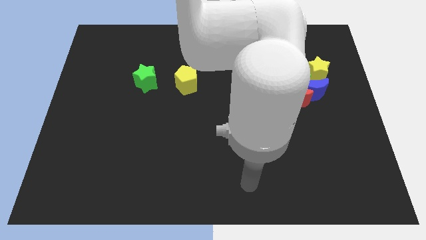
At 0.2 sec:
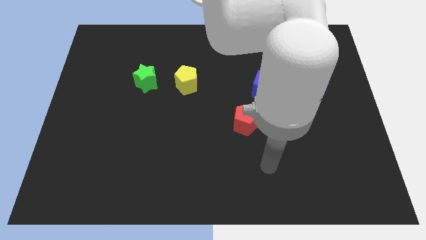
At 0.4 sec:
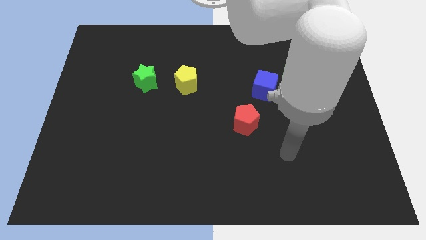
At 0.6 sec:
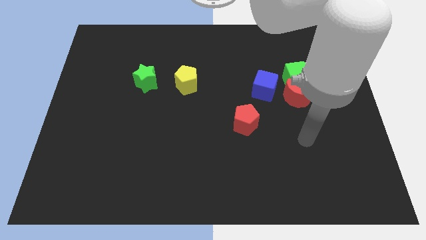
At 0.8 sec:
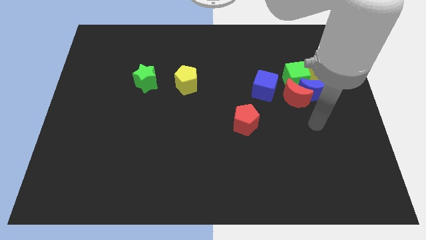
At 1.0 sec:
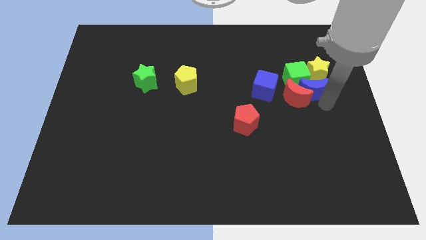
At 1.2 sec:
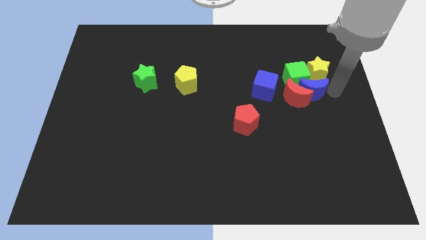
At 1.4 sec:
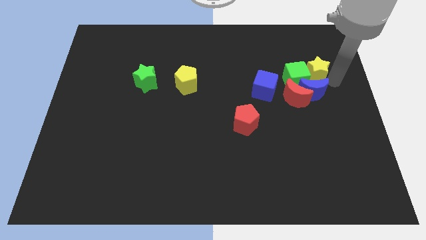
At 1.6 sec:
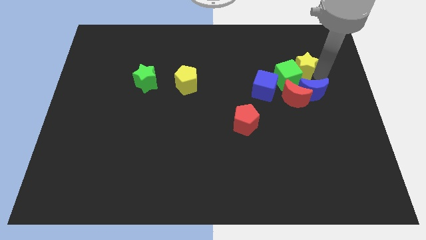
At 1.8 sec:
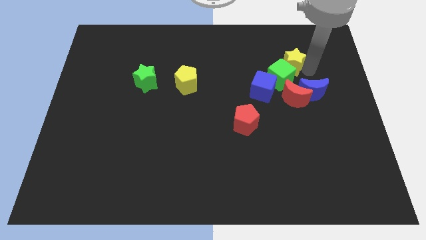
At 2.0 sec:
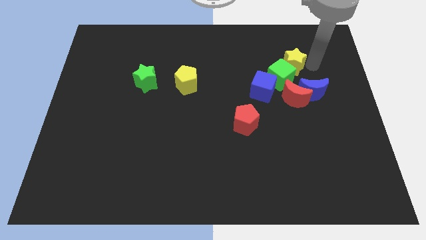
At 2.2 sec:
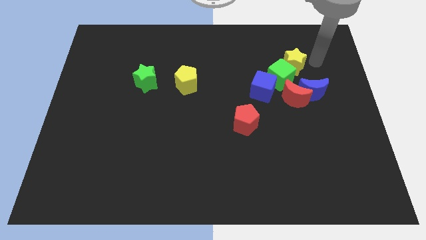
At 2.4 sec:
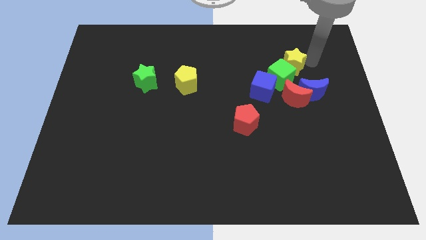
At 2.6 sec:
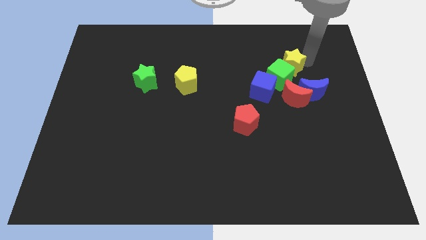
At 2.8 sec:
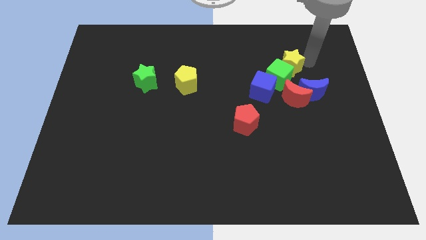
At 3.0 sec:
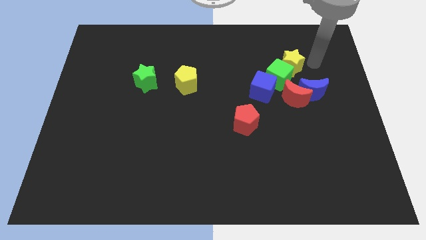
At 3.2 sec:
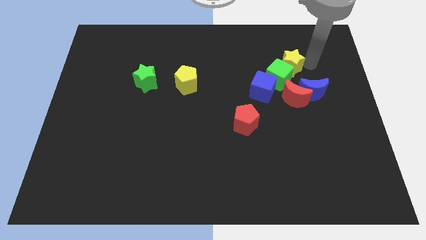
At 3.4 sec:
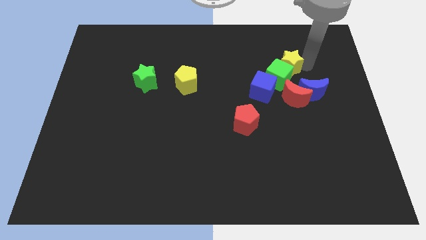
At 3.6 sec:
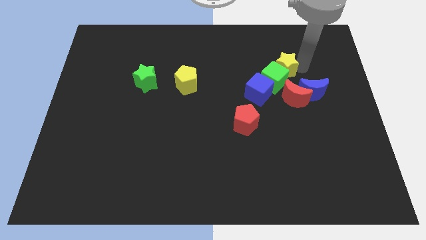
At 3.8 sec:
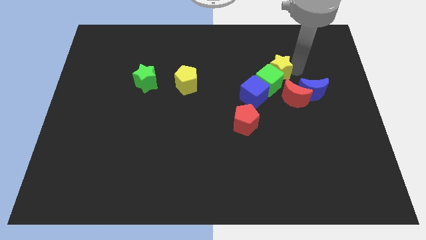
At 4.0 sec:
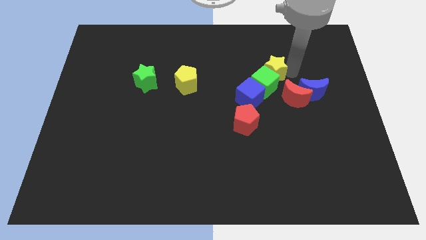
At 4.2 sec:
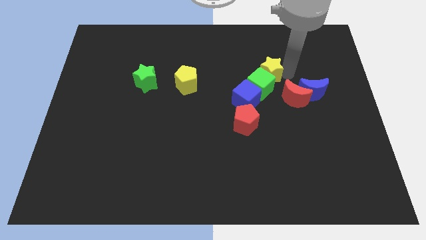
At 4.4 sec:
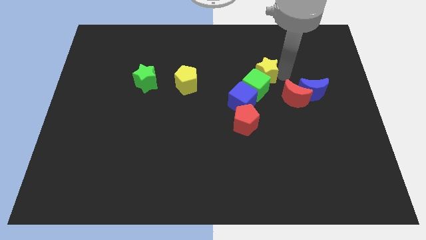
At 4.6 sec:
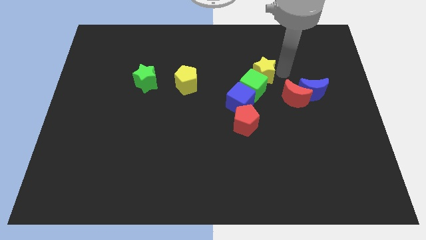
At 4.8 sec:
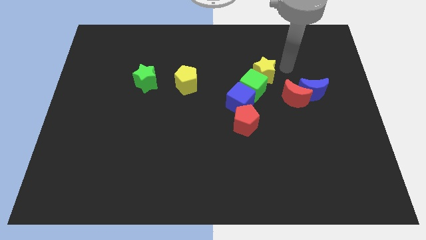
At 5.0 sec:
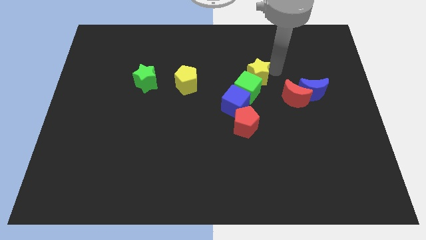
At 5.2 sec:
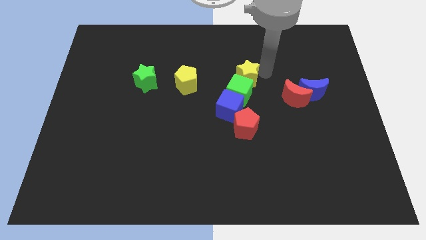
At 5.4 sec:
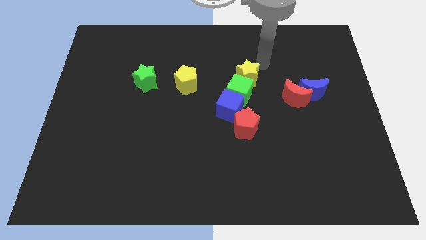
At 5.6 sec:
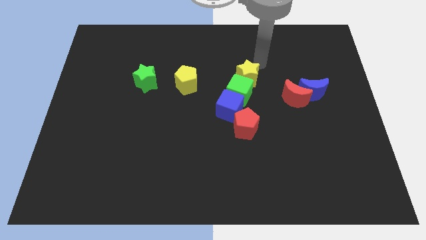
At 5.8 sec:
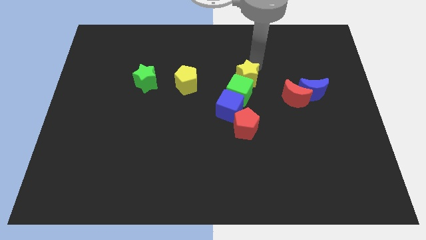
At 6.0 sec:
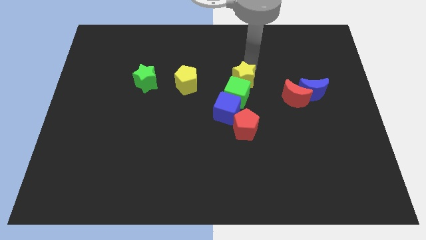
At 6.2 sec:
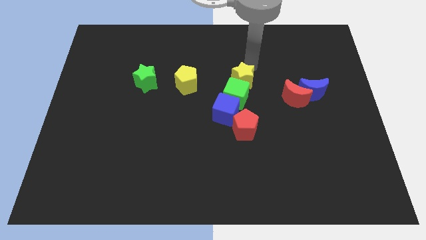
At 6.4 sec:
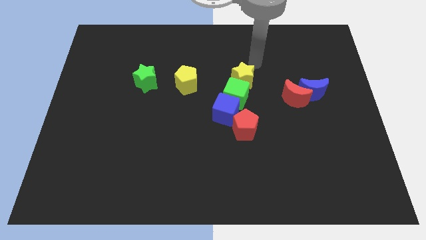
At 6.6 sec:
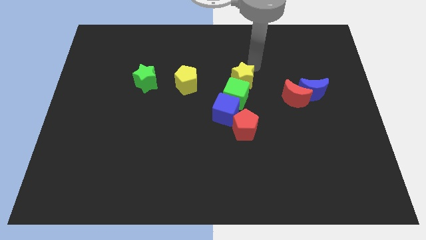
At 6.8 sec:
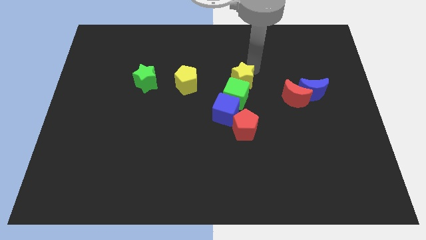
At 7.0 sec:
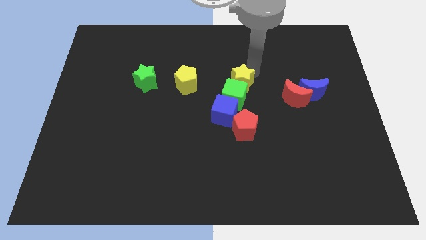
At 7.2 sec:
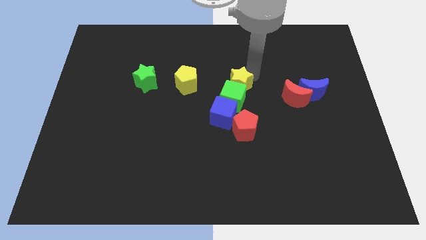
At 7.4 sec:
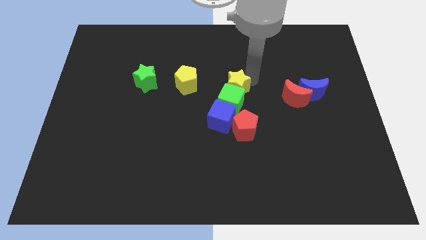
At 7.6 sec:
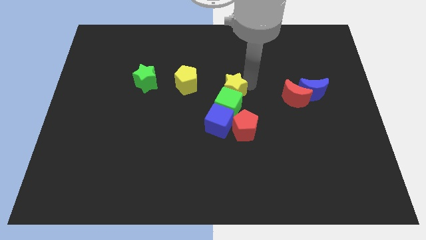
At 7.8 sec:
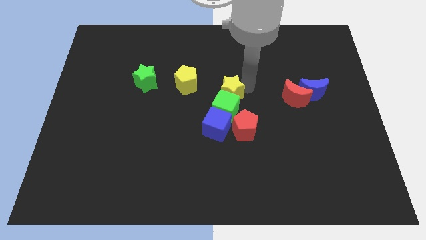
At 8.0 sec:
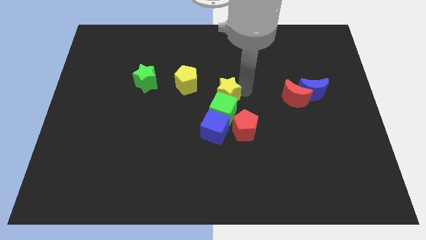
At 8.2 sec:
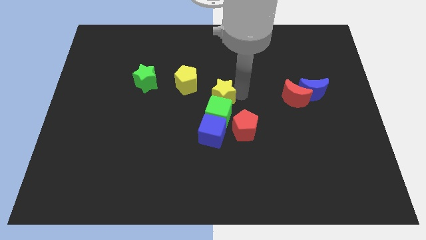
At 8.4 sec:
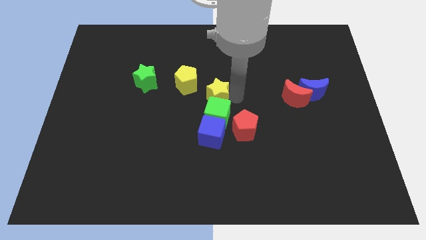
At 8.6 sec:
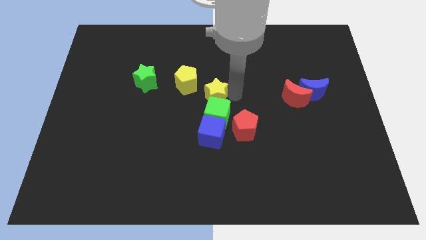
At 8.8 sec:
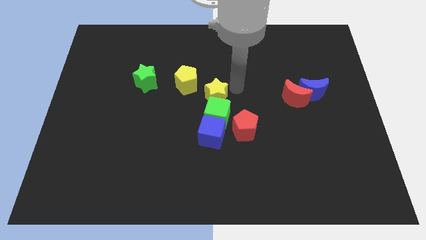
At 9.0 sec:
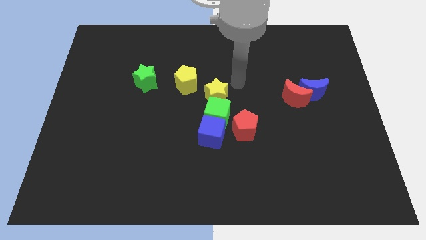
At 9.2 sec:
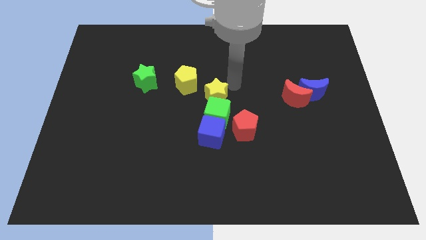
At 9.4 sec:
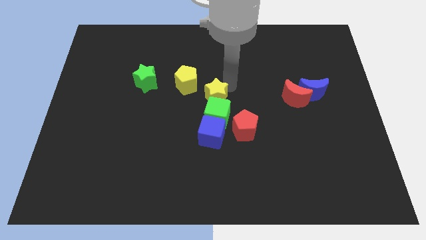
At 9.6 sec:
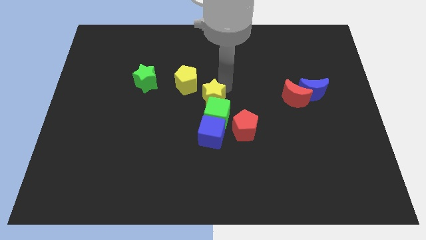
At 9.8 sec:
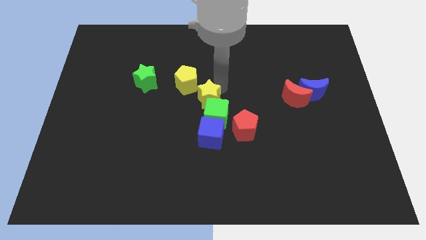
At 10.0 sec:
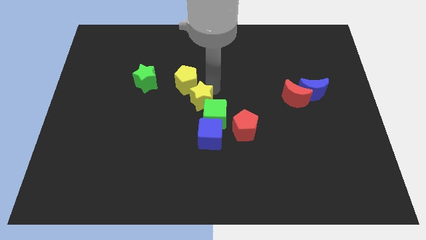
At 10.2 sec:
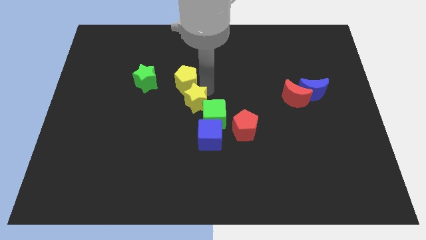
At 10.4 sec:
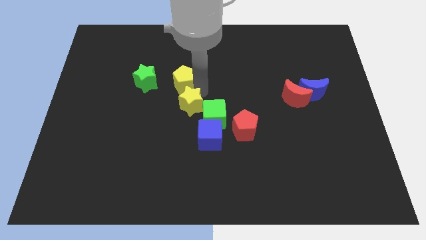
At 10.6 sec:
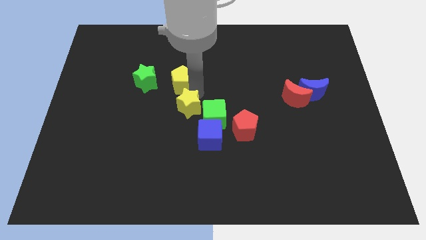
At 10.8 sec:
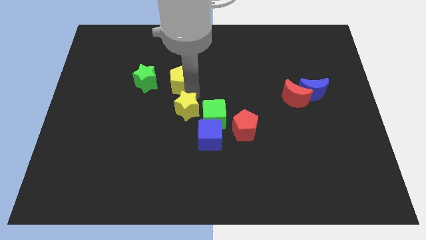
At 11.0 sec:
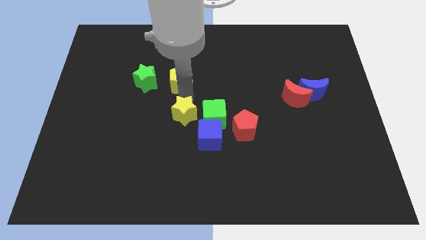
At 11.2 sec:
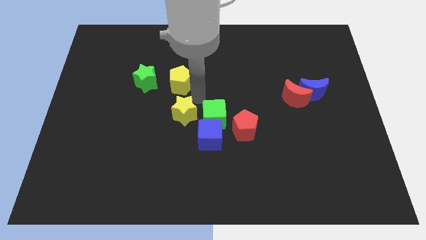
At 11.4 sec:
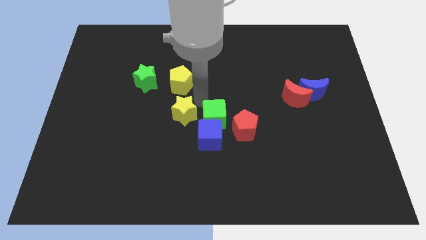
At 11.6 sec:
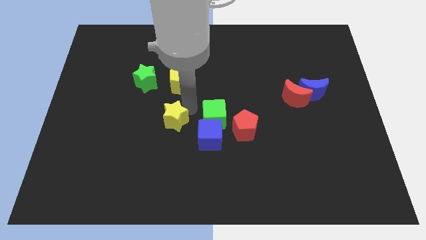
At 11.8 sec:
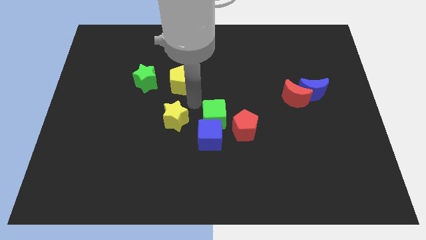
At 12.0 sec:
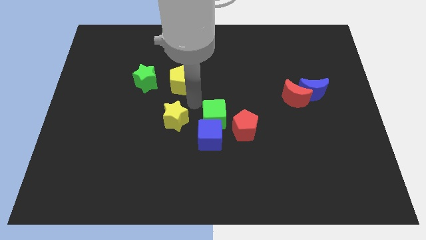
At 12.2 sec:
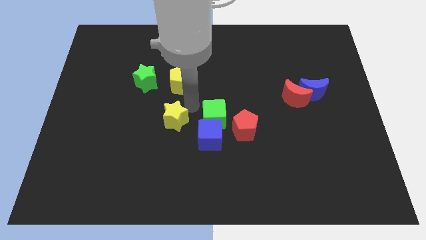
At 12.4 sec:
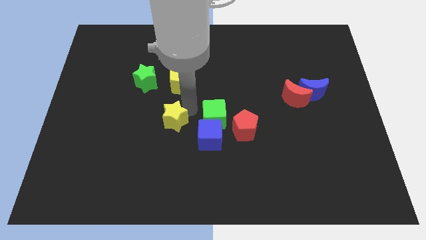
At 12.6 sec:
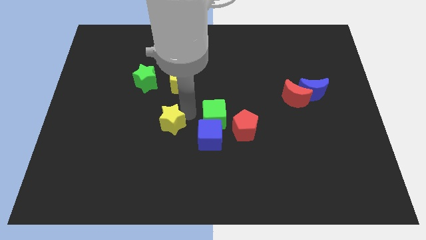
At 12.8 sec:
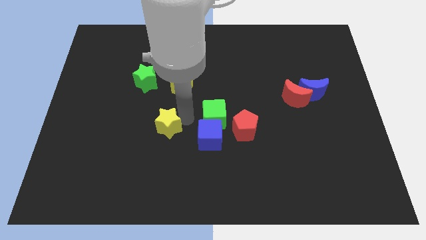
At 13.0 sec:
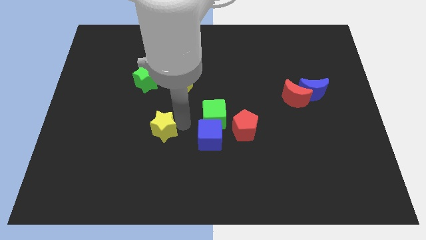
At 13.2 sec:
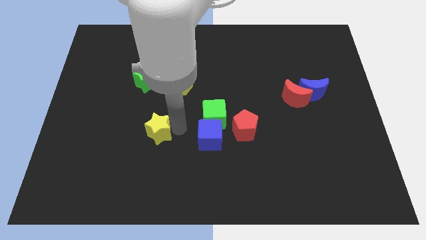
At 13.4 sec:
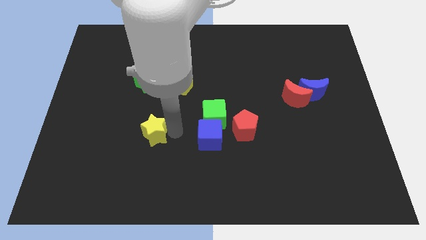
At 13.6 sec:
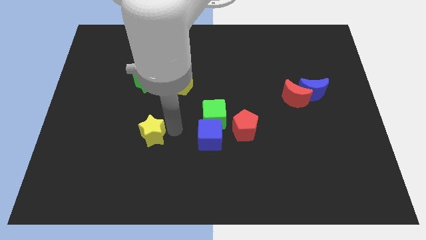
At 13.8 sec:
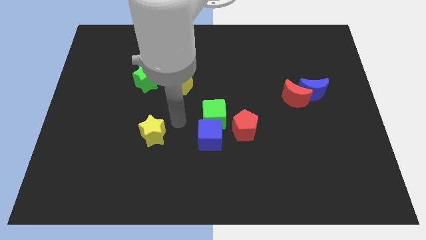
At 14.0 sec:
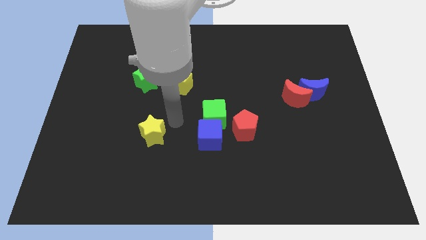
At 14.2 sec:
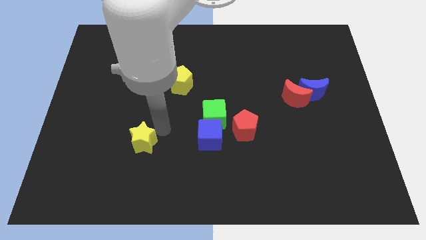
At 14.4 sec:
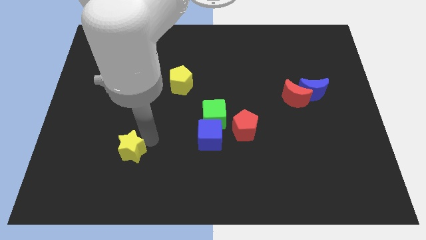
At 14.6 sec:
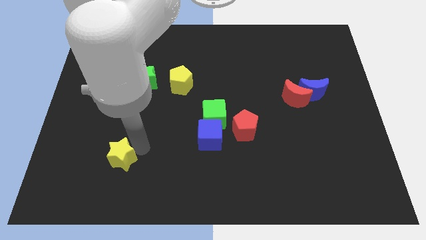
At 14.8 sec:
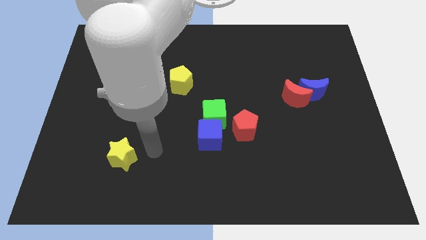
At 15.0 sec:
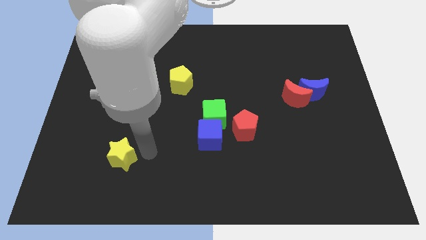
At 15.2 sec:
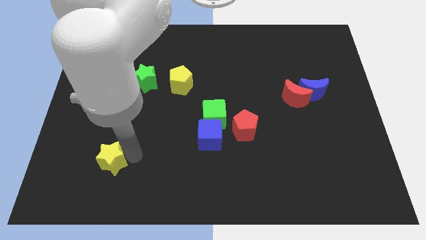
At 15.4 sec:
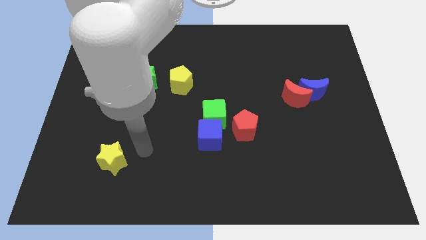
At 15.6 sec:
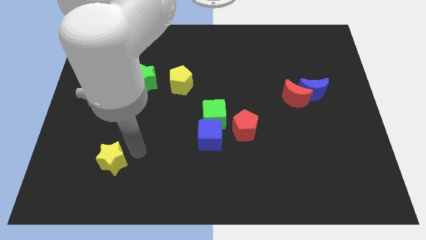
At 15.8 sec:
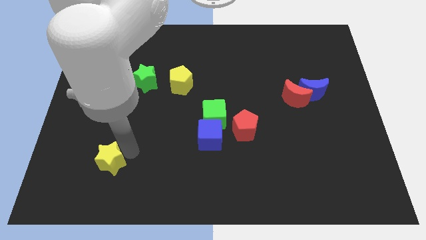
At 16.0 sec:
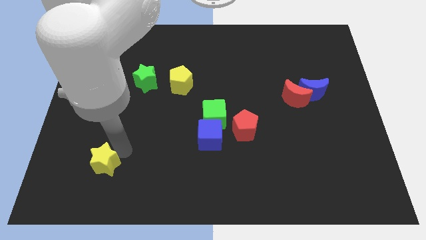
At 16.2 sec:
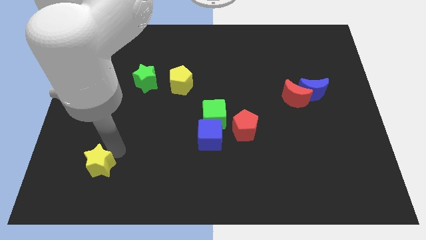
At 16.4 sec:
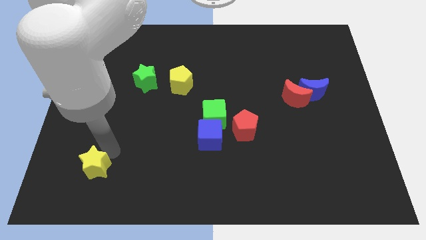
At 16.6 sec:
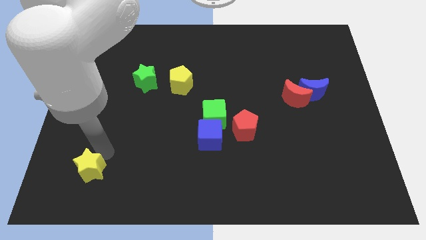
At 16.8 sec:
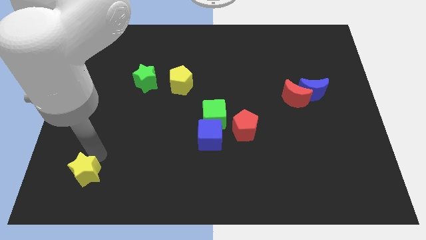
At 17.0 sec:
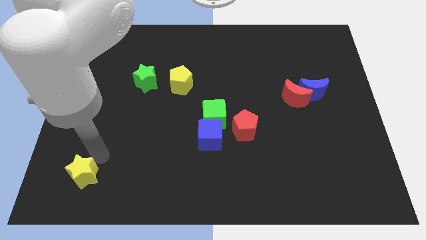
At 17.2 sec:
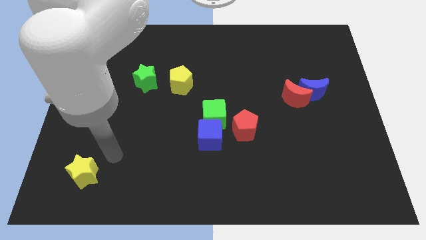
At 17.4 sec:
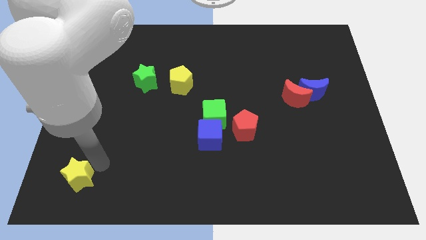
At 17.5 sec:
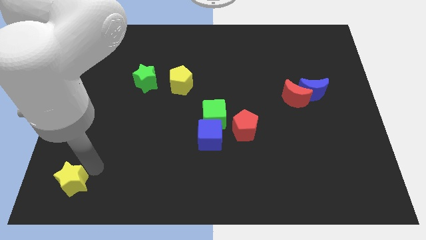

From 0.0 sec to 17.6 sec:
move the yellow star to the lower left corner
